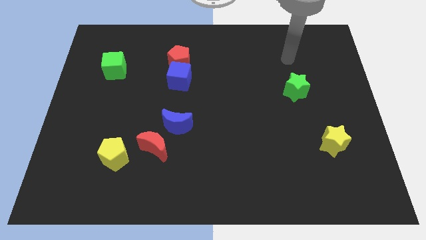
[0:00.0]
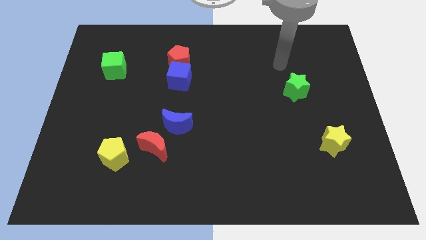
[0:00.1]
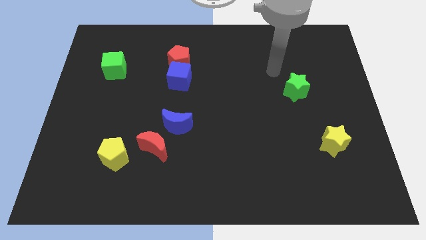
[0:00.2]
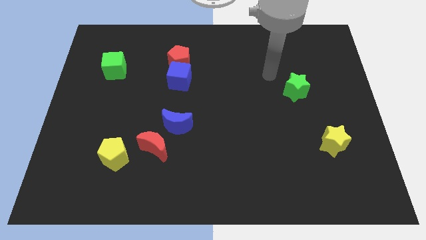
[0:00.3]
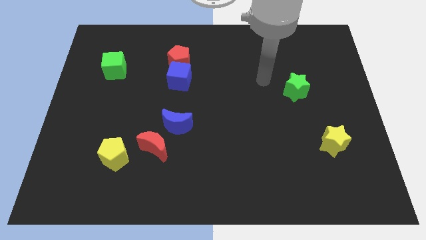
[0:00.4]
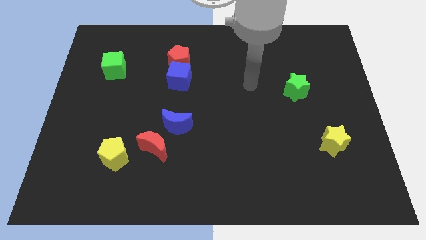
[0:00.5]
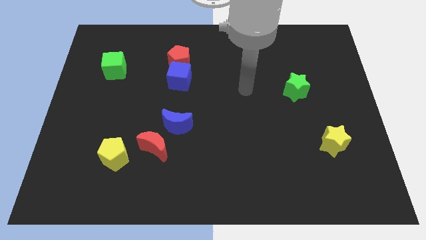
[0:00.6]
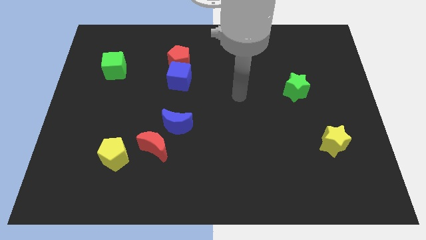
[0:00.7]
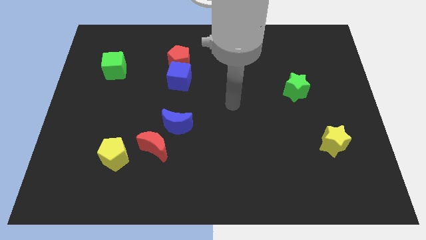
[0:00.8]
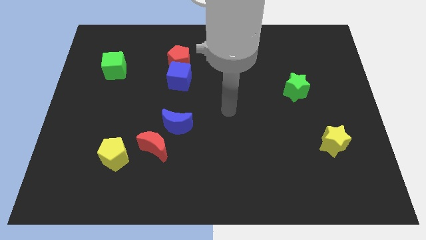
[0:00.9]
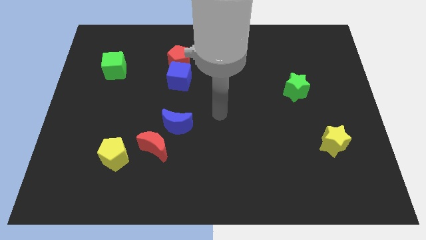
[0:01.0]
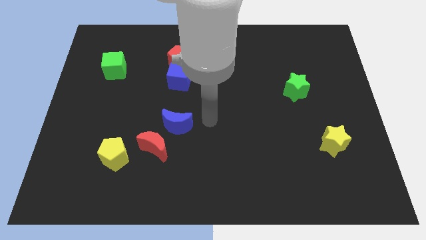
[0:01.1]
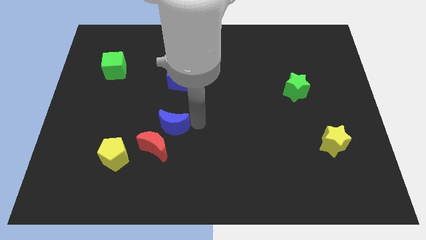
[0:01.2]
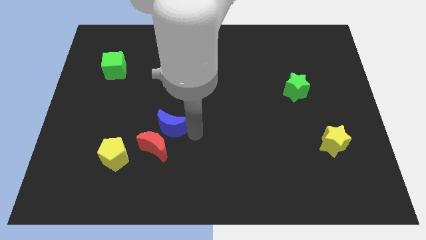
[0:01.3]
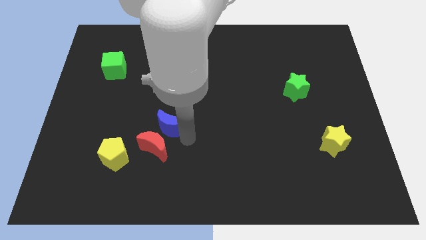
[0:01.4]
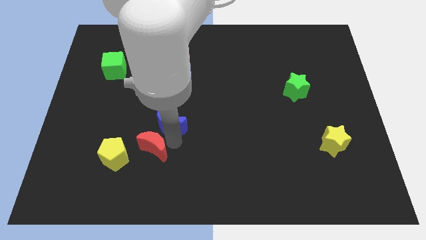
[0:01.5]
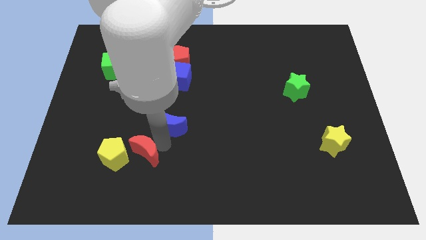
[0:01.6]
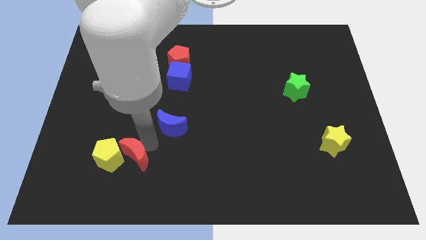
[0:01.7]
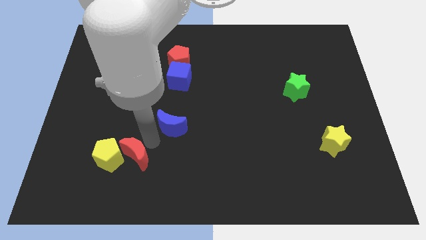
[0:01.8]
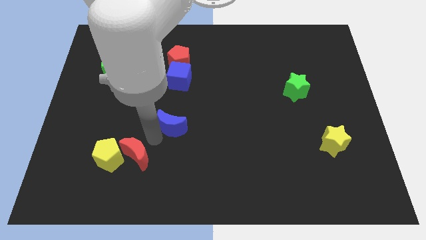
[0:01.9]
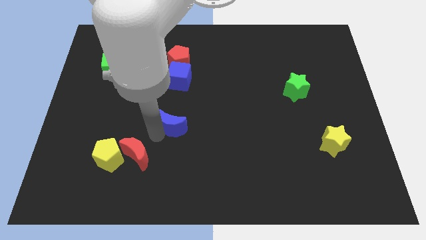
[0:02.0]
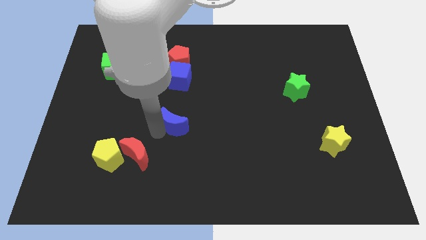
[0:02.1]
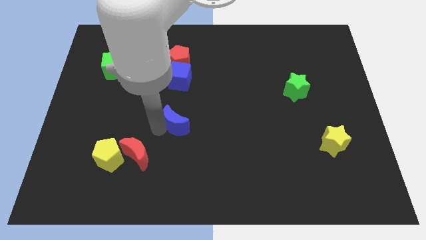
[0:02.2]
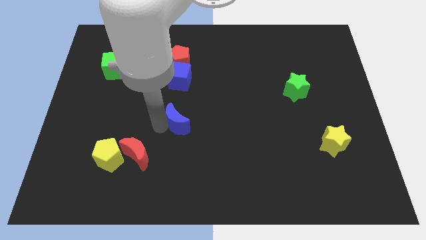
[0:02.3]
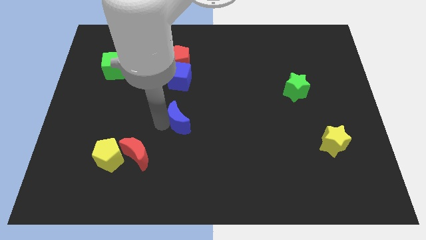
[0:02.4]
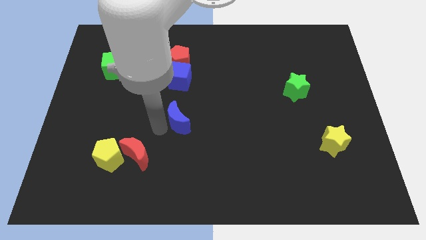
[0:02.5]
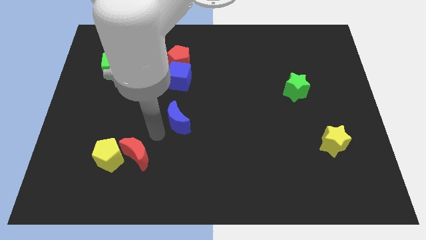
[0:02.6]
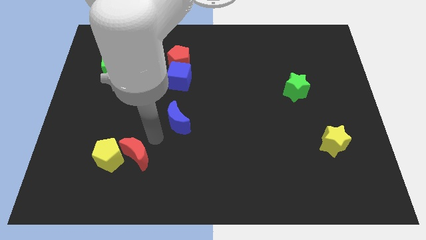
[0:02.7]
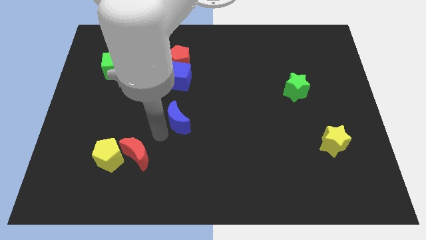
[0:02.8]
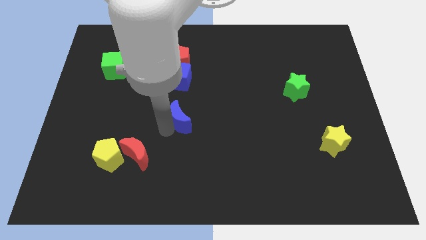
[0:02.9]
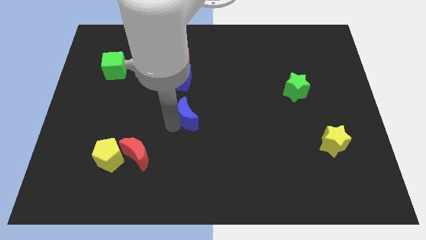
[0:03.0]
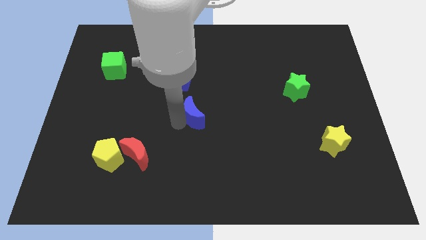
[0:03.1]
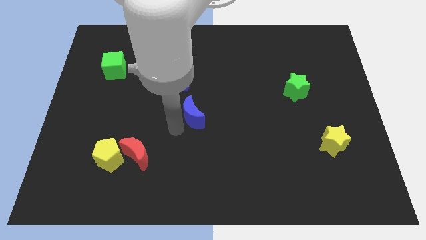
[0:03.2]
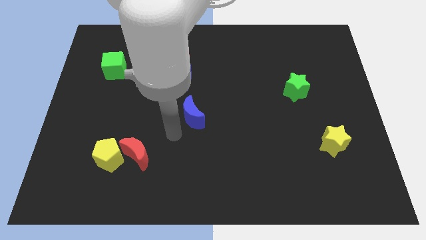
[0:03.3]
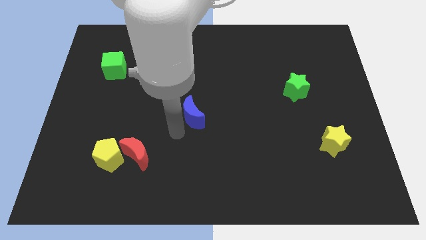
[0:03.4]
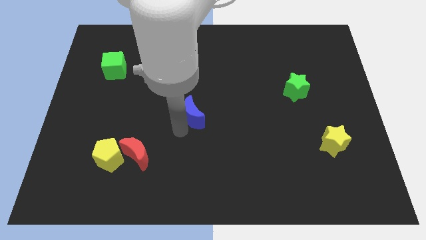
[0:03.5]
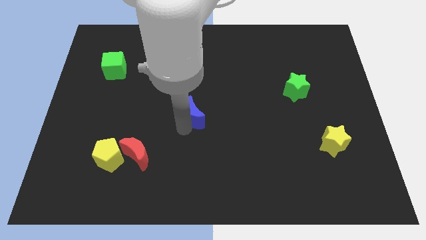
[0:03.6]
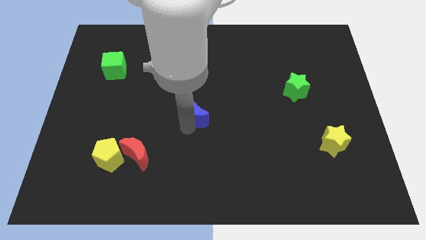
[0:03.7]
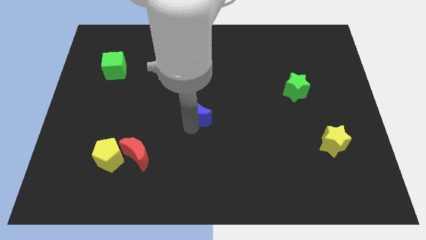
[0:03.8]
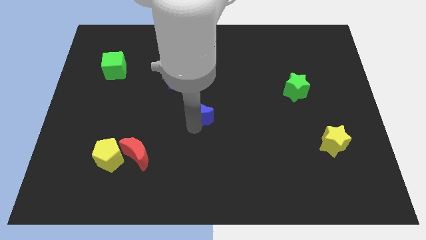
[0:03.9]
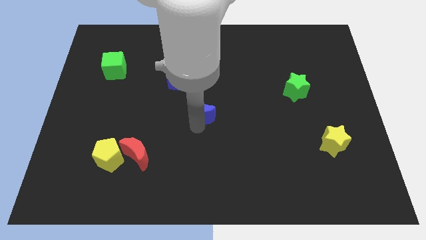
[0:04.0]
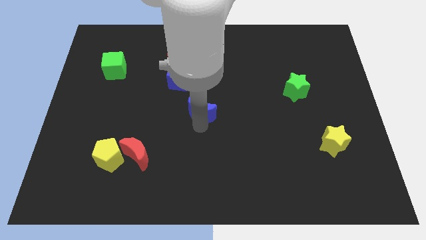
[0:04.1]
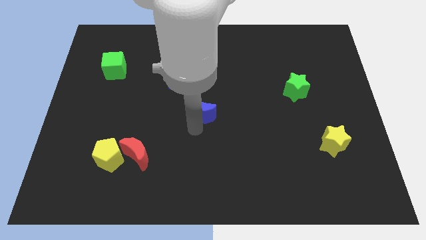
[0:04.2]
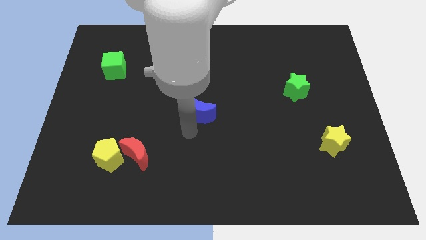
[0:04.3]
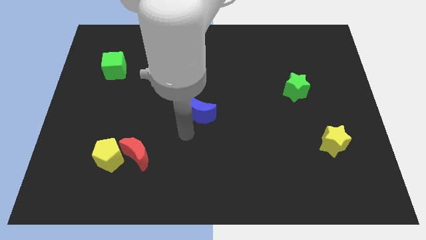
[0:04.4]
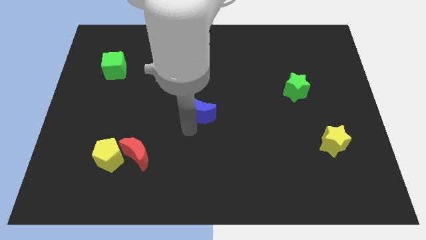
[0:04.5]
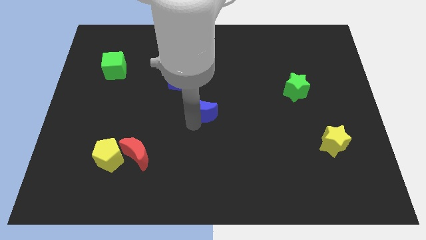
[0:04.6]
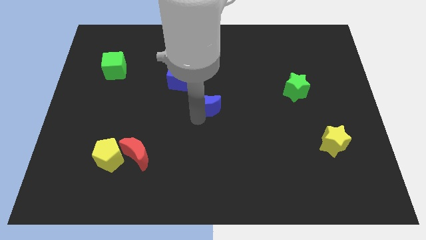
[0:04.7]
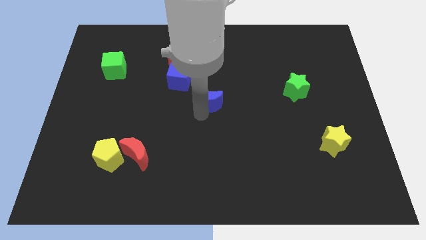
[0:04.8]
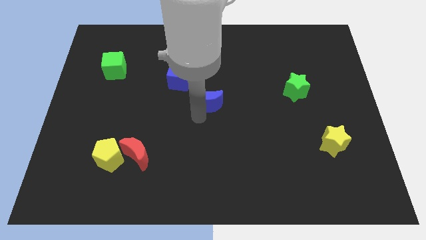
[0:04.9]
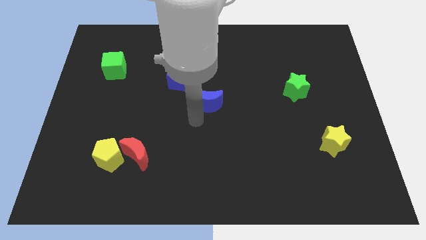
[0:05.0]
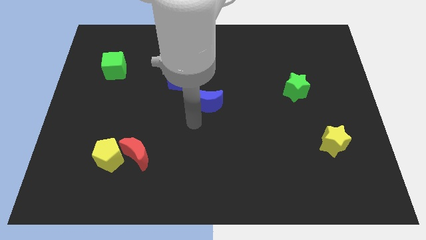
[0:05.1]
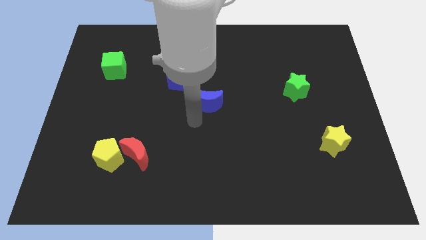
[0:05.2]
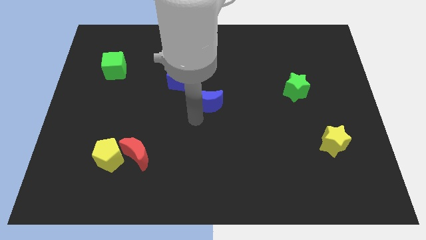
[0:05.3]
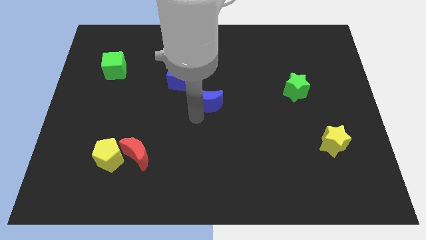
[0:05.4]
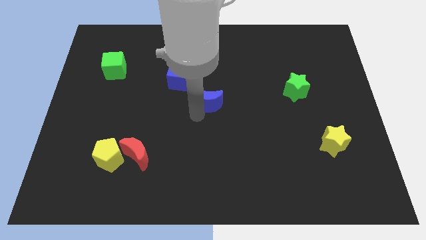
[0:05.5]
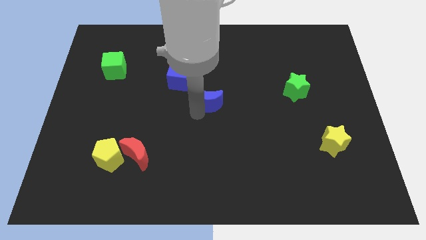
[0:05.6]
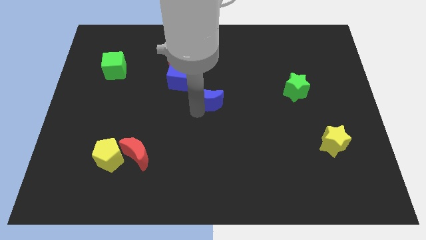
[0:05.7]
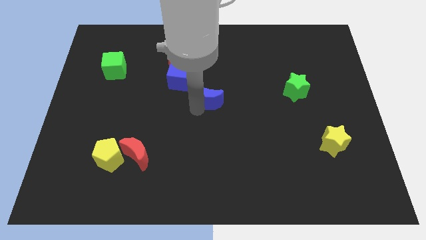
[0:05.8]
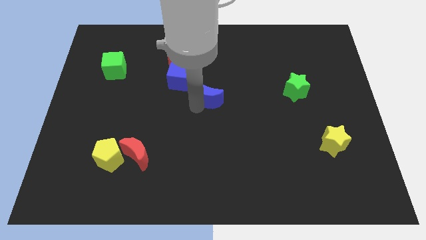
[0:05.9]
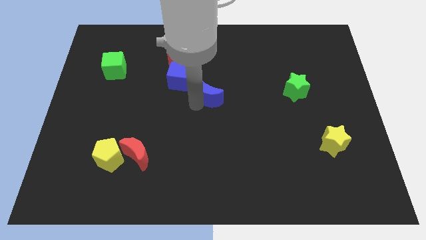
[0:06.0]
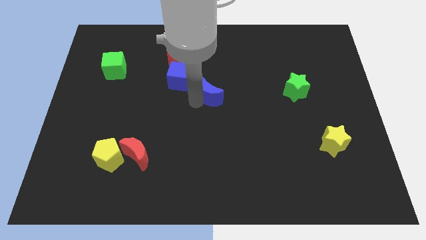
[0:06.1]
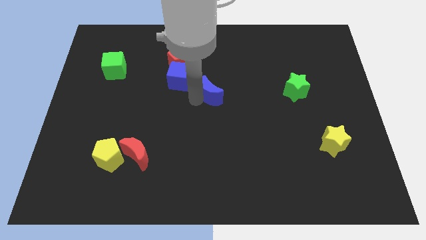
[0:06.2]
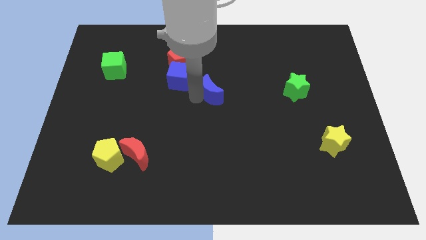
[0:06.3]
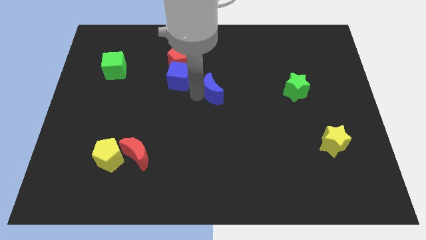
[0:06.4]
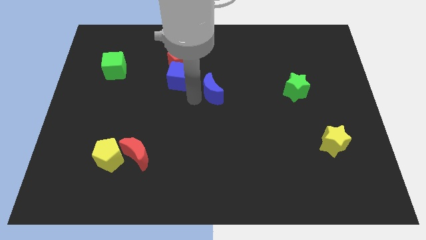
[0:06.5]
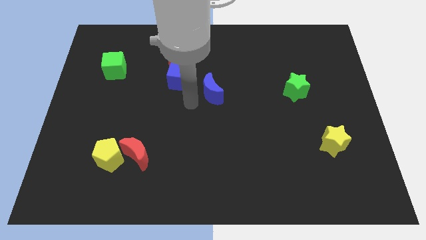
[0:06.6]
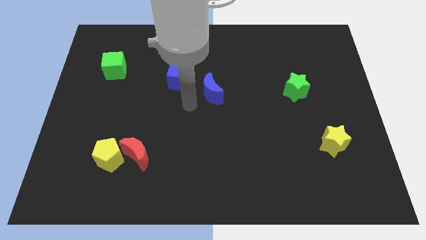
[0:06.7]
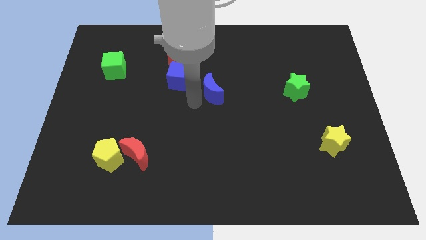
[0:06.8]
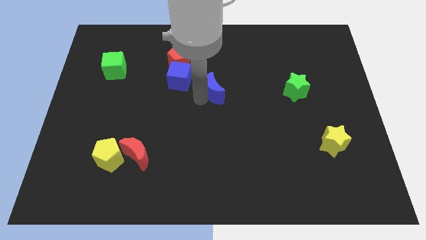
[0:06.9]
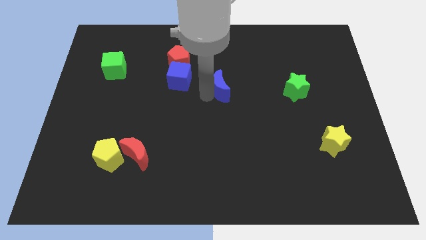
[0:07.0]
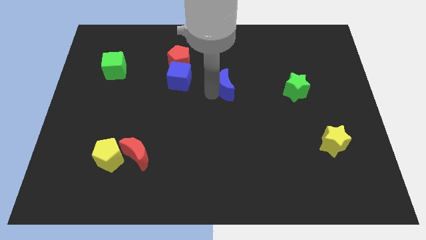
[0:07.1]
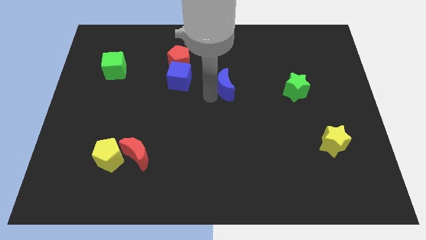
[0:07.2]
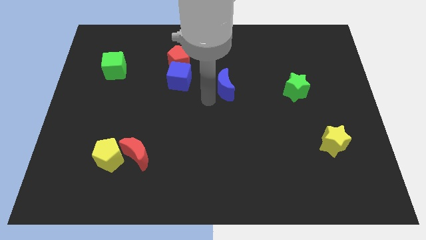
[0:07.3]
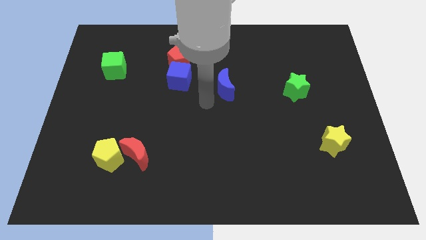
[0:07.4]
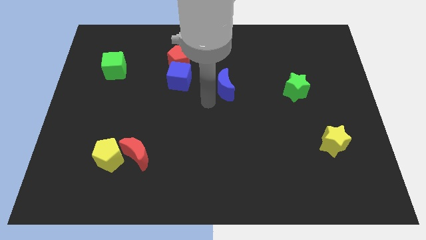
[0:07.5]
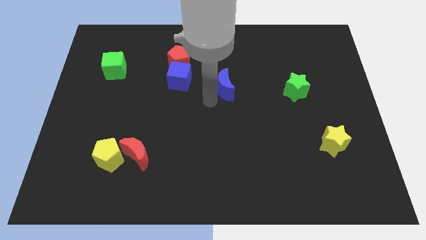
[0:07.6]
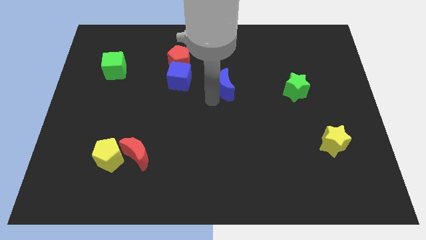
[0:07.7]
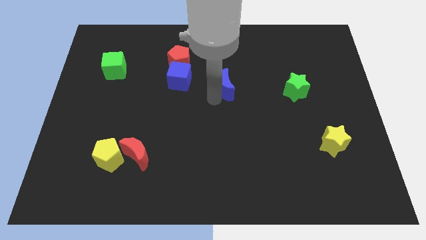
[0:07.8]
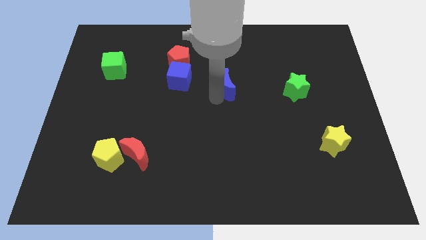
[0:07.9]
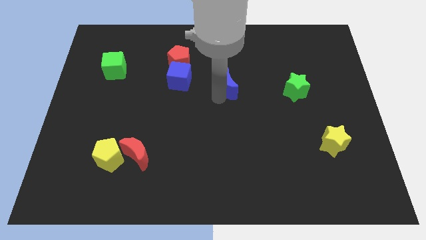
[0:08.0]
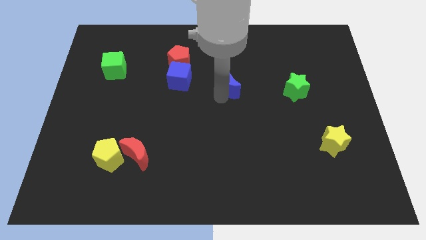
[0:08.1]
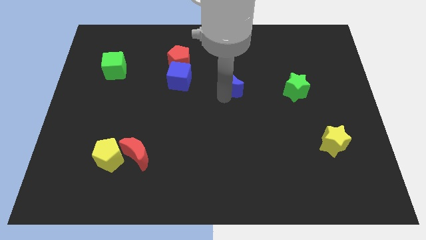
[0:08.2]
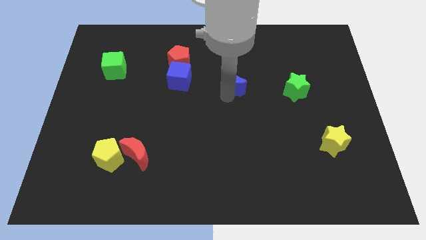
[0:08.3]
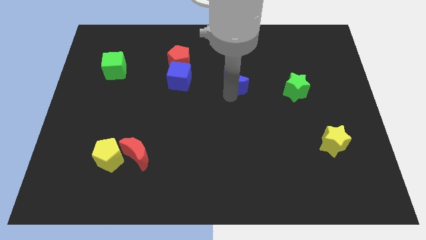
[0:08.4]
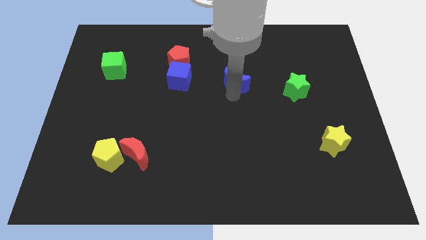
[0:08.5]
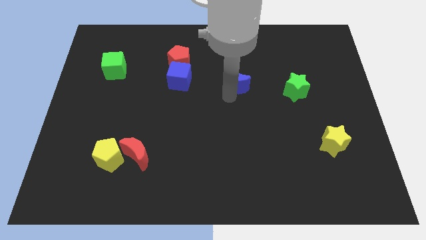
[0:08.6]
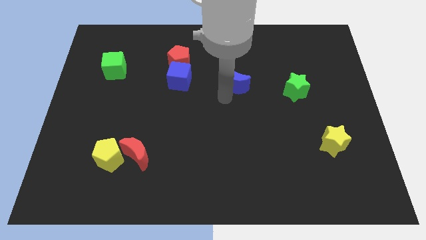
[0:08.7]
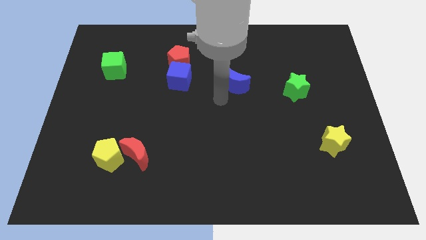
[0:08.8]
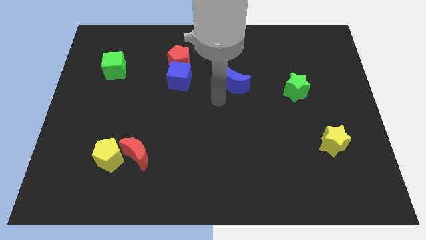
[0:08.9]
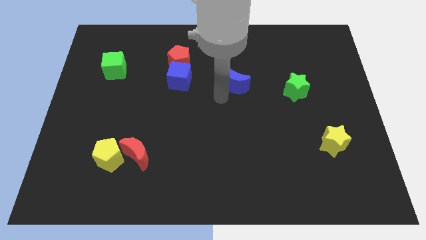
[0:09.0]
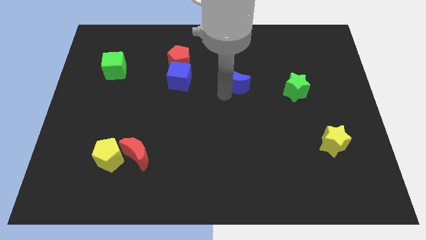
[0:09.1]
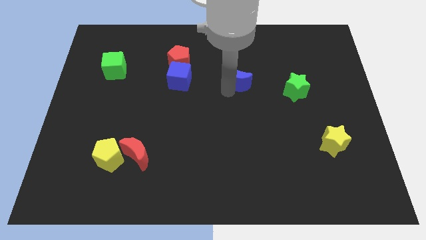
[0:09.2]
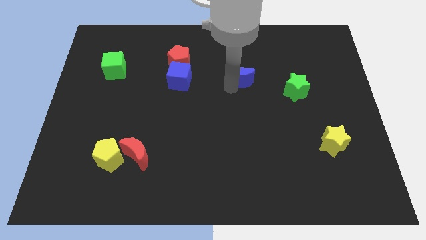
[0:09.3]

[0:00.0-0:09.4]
slide the blue moon upwards and right diagonally
